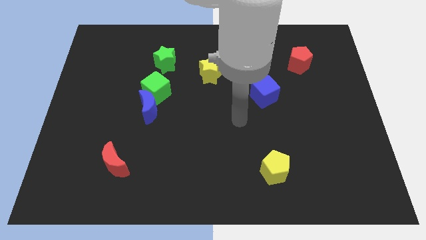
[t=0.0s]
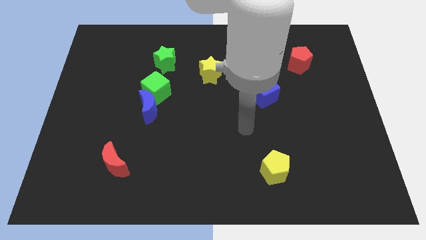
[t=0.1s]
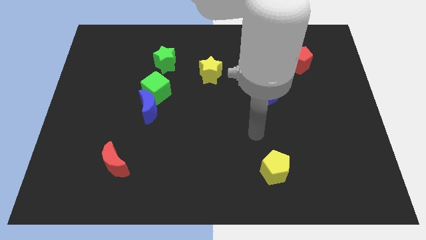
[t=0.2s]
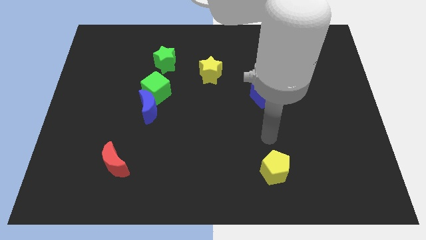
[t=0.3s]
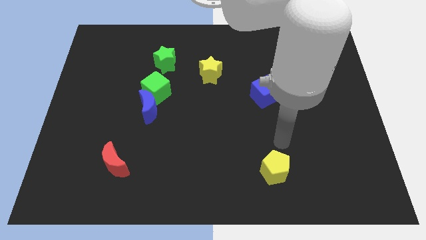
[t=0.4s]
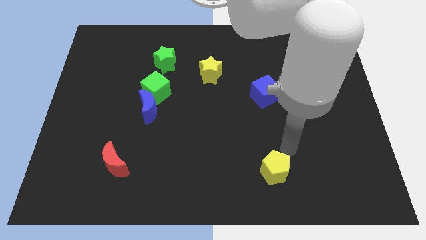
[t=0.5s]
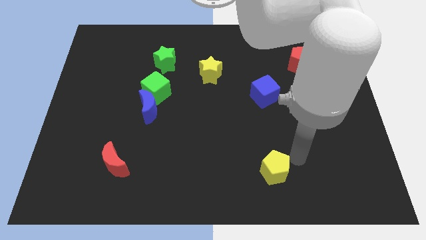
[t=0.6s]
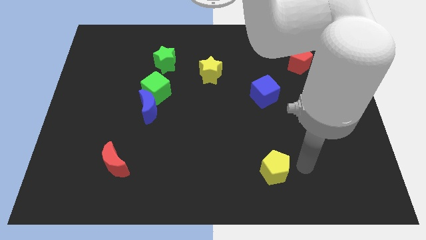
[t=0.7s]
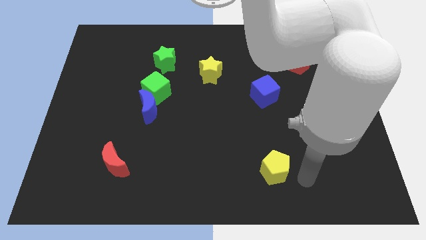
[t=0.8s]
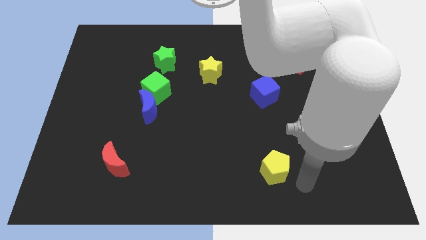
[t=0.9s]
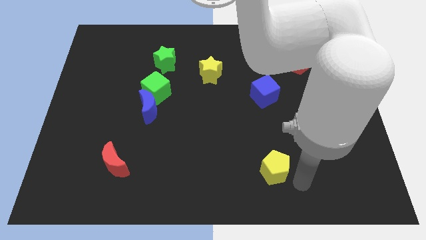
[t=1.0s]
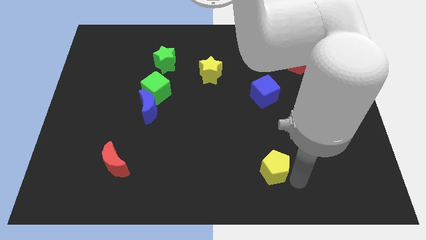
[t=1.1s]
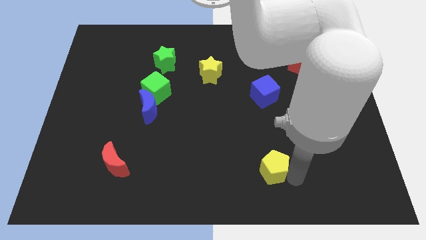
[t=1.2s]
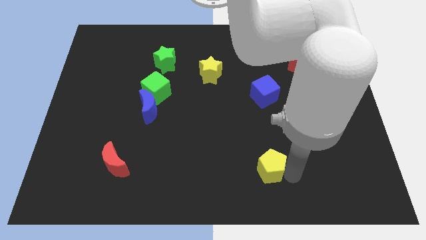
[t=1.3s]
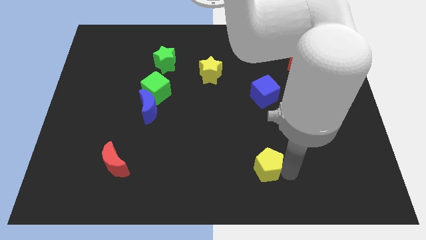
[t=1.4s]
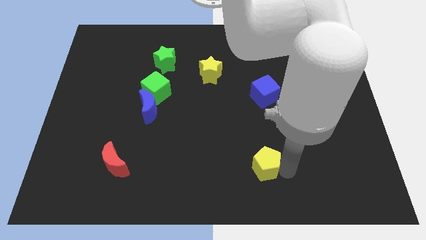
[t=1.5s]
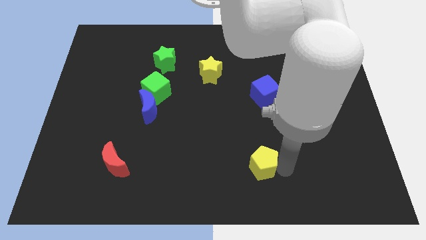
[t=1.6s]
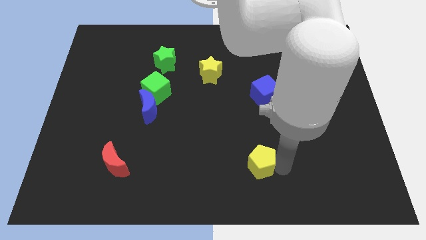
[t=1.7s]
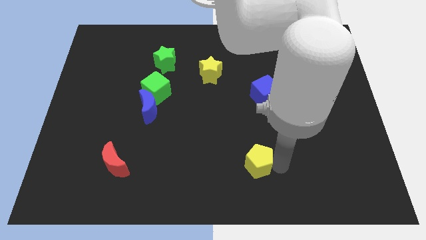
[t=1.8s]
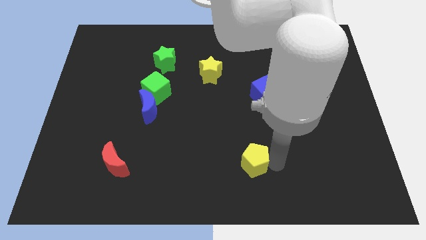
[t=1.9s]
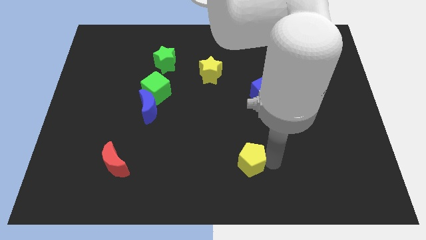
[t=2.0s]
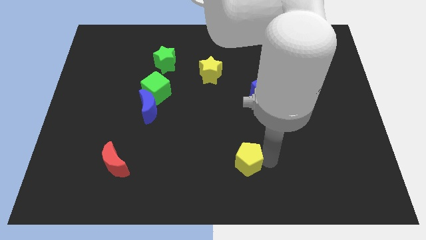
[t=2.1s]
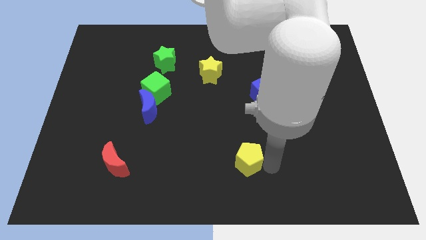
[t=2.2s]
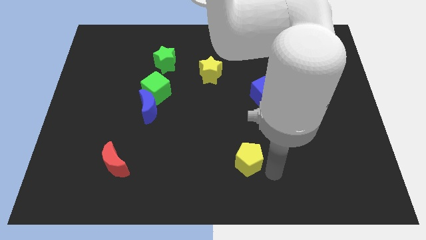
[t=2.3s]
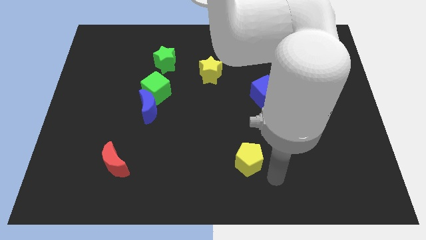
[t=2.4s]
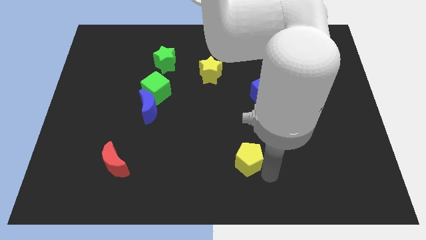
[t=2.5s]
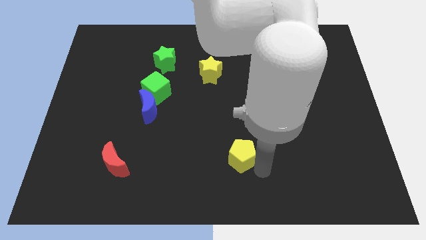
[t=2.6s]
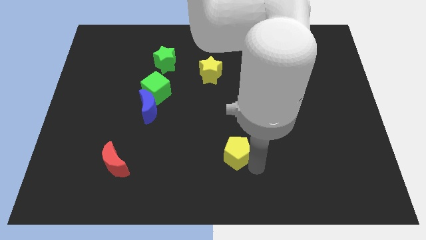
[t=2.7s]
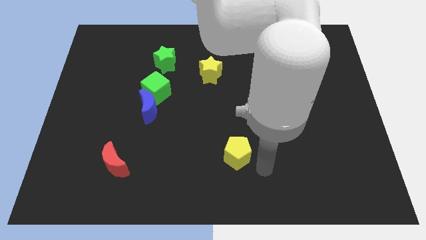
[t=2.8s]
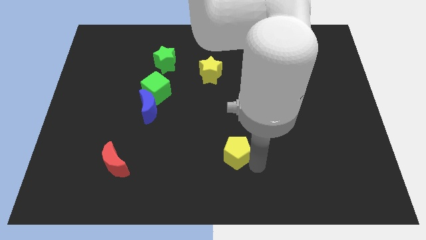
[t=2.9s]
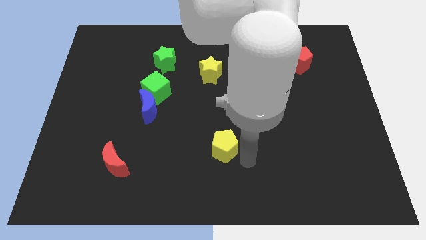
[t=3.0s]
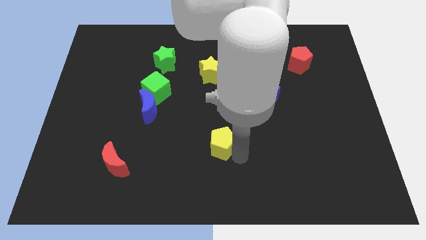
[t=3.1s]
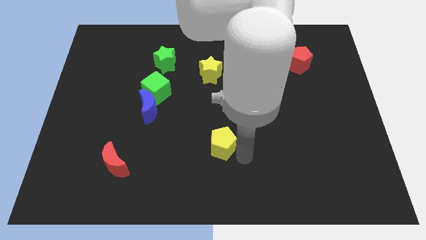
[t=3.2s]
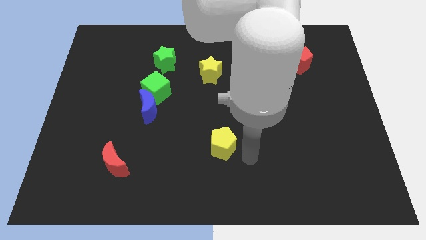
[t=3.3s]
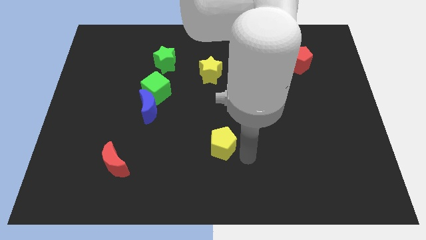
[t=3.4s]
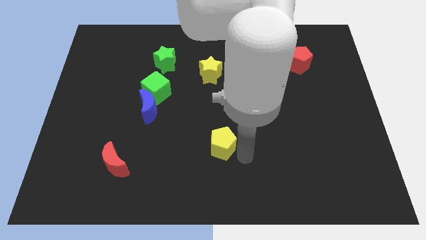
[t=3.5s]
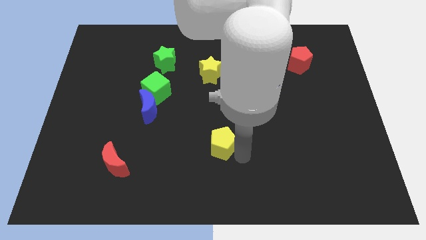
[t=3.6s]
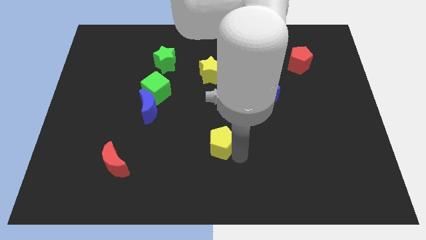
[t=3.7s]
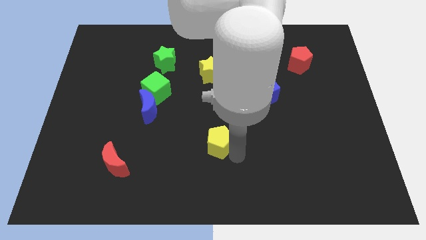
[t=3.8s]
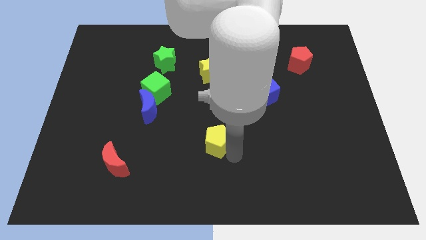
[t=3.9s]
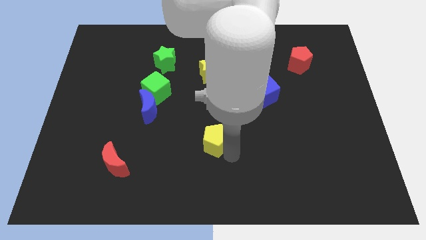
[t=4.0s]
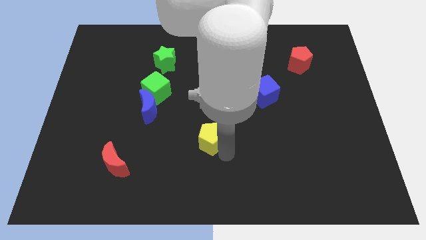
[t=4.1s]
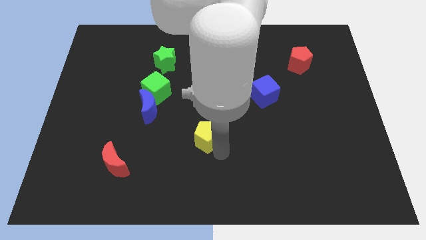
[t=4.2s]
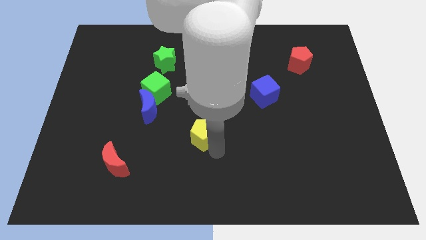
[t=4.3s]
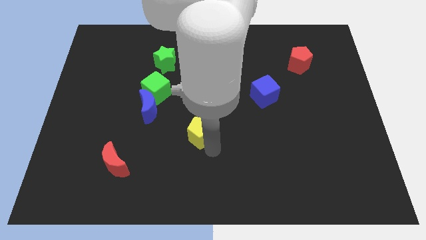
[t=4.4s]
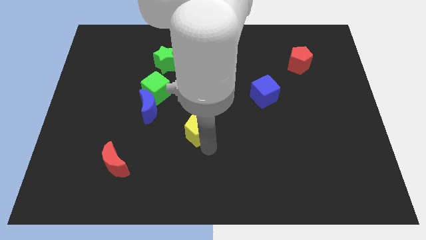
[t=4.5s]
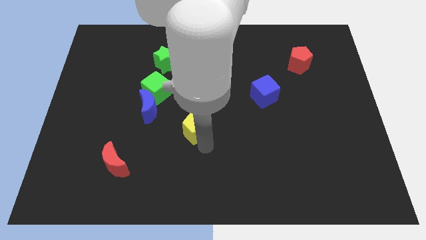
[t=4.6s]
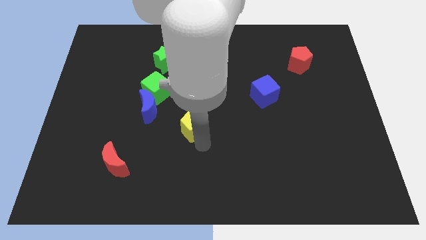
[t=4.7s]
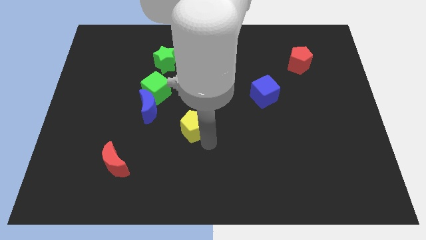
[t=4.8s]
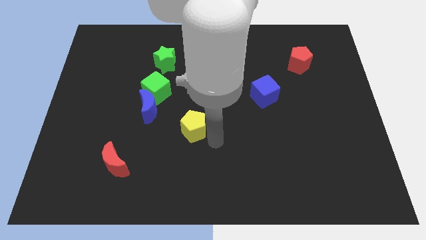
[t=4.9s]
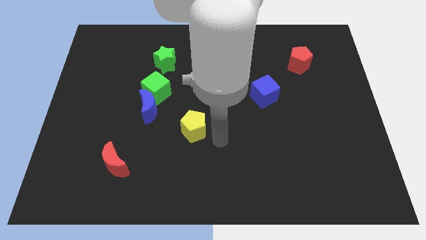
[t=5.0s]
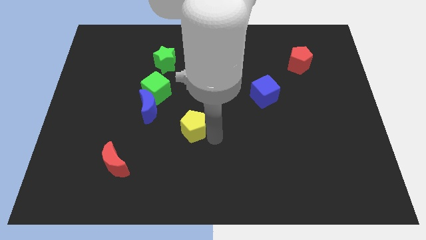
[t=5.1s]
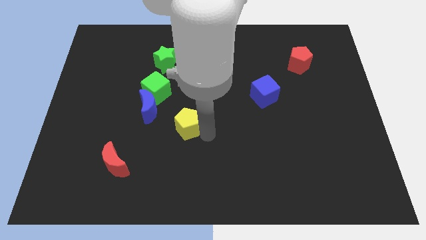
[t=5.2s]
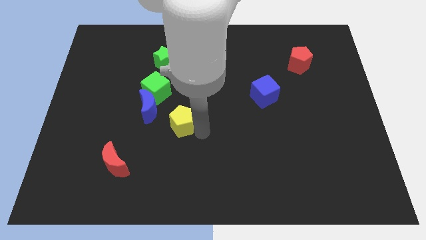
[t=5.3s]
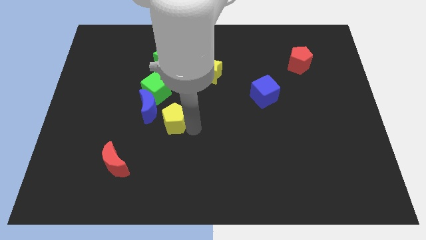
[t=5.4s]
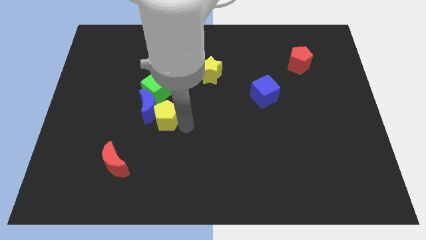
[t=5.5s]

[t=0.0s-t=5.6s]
put the yellow pentagon next to the blue moon

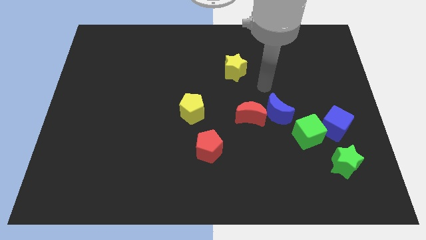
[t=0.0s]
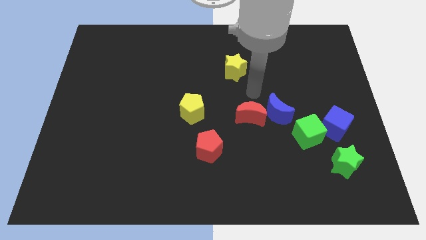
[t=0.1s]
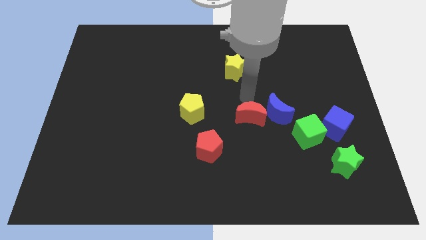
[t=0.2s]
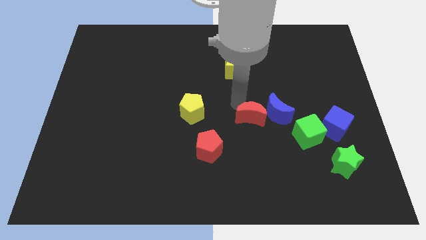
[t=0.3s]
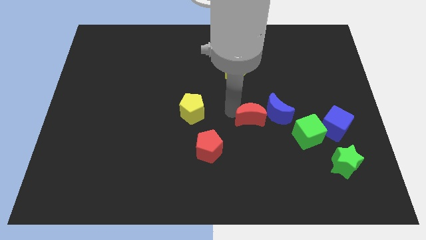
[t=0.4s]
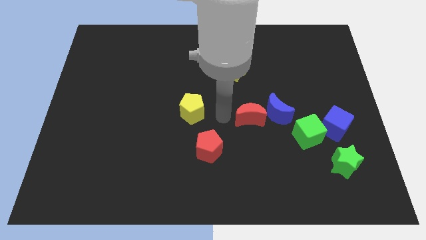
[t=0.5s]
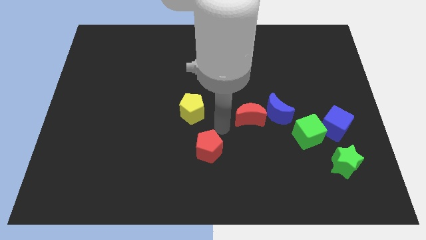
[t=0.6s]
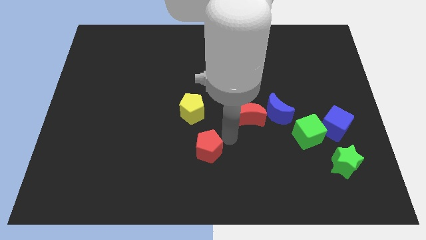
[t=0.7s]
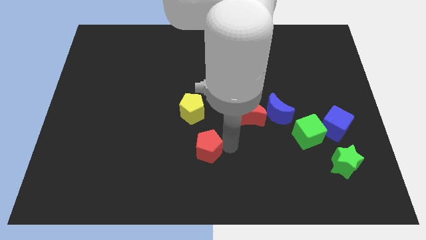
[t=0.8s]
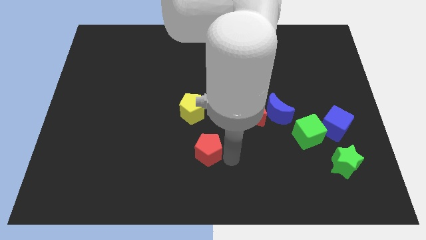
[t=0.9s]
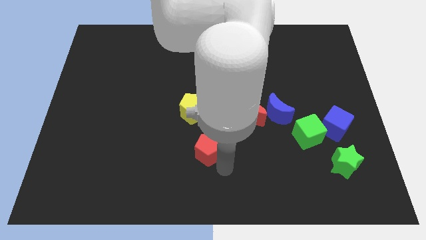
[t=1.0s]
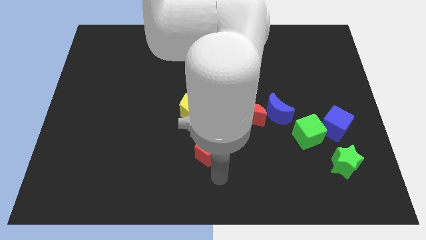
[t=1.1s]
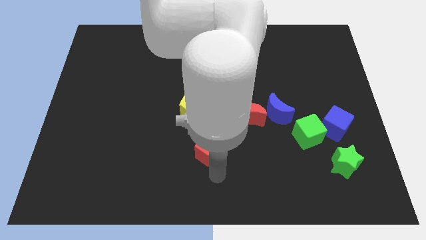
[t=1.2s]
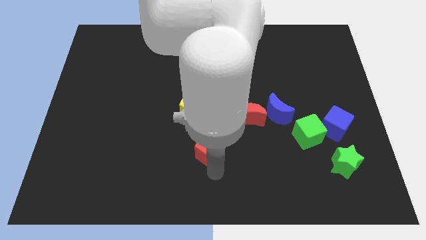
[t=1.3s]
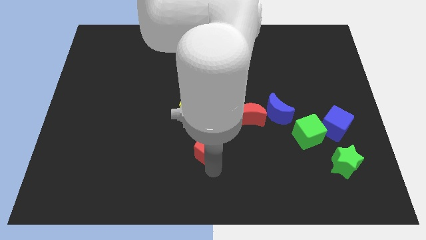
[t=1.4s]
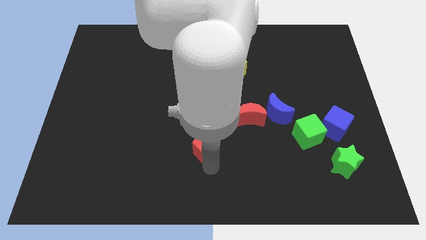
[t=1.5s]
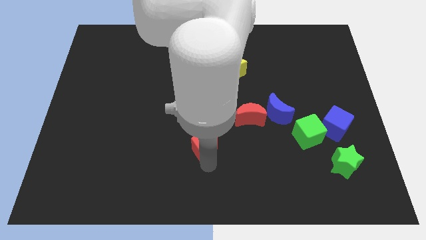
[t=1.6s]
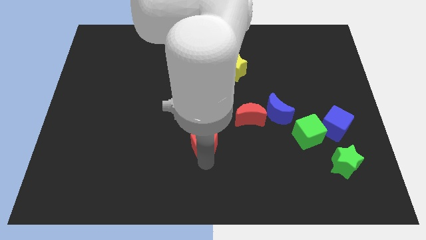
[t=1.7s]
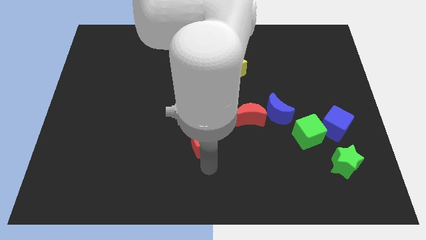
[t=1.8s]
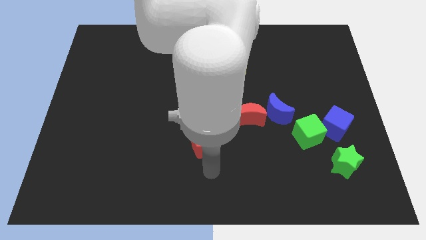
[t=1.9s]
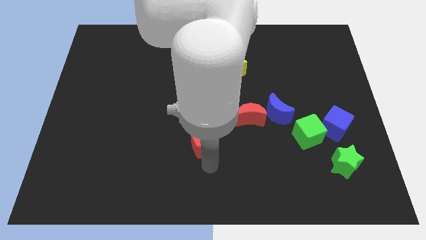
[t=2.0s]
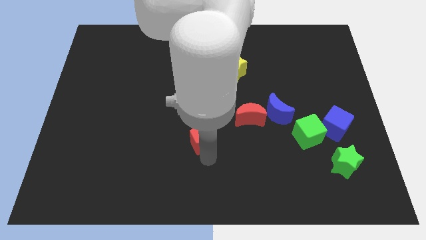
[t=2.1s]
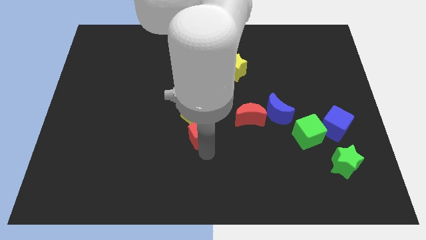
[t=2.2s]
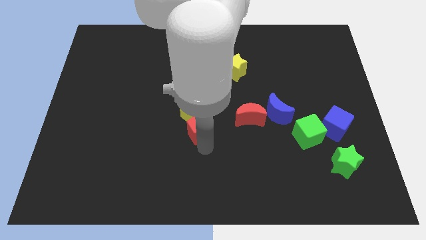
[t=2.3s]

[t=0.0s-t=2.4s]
slide the red pentagon next to the yellow pentagon
